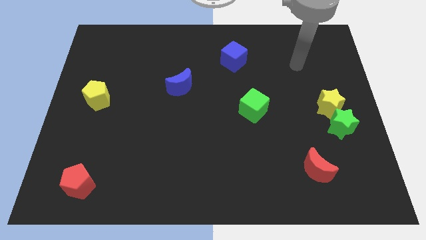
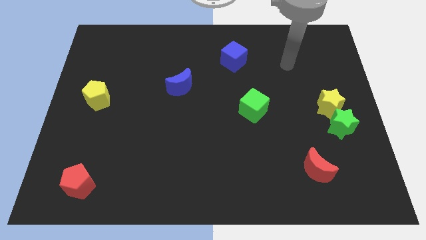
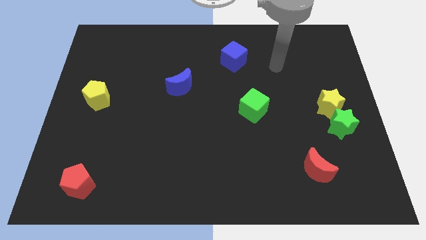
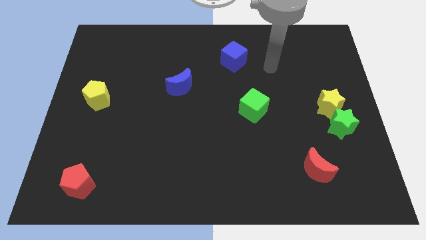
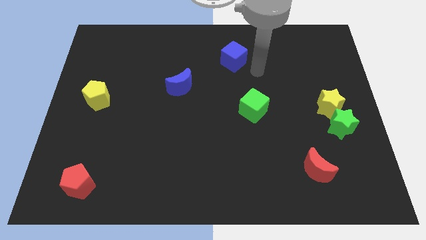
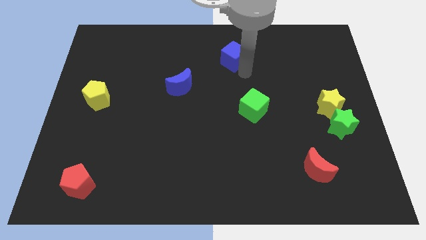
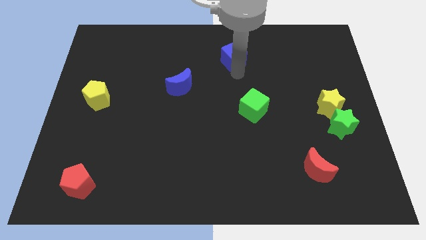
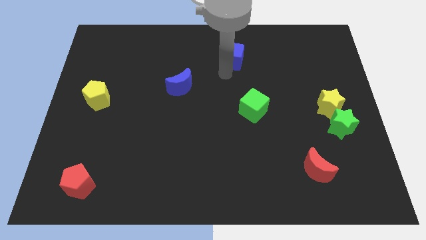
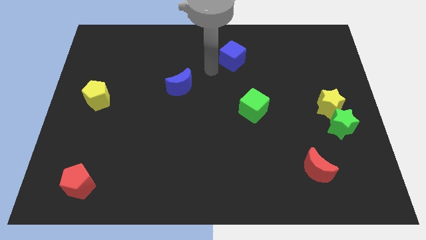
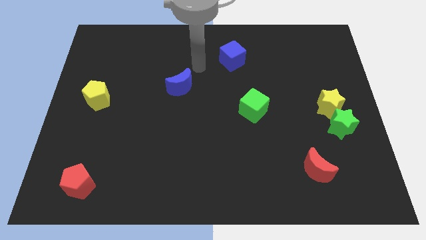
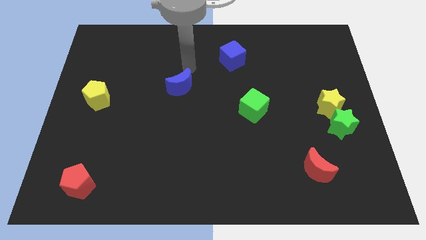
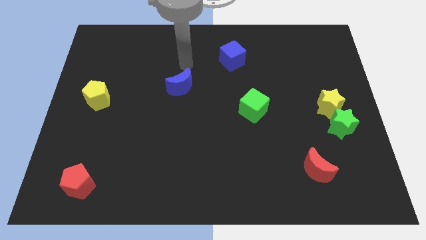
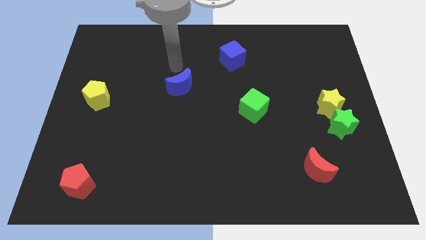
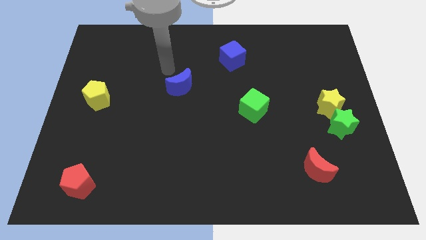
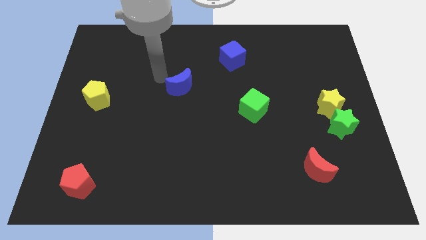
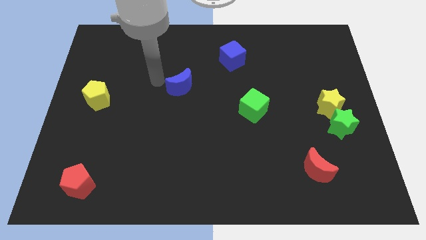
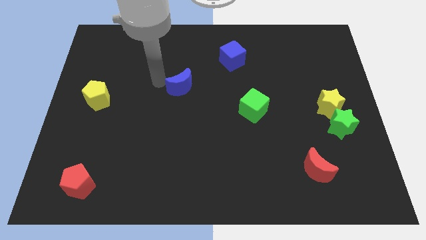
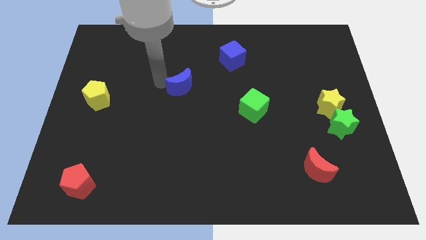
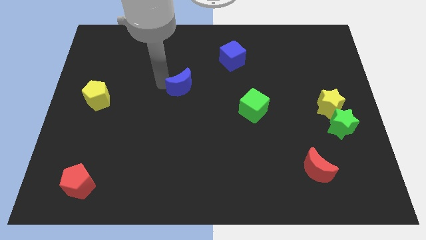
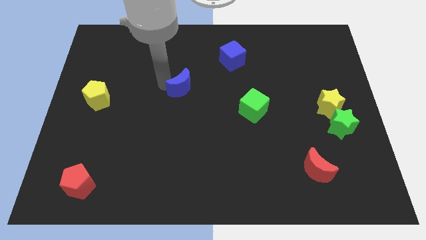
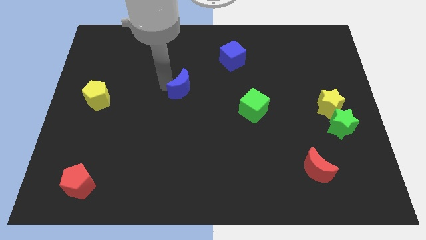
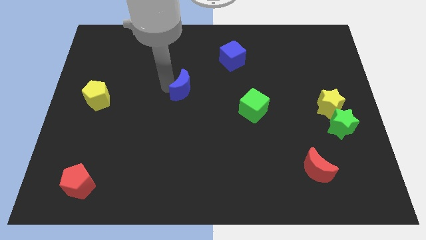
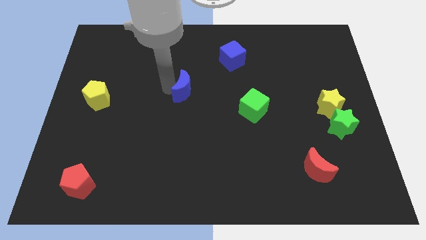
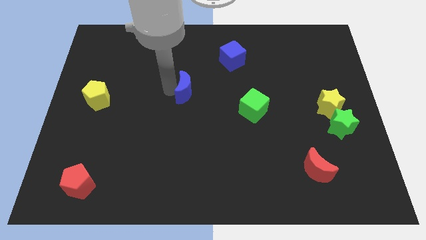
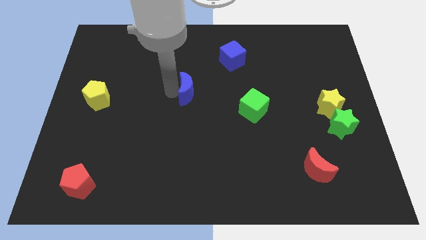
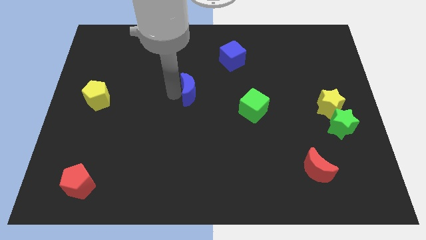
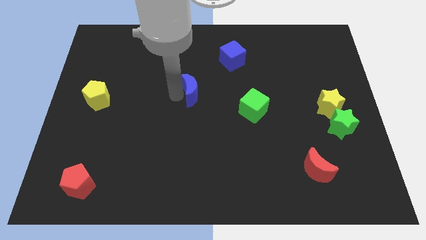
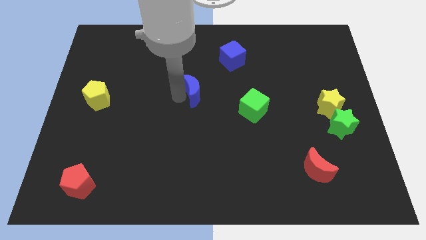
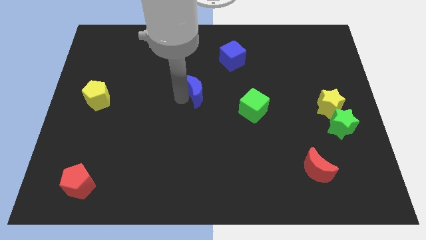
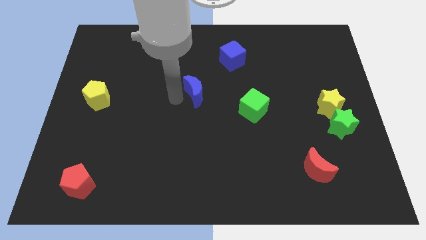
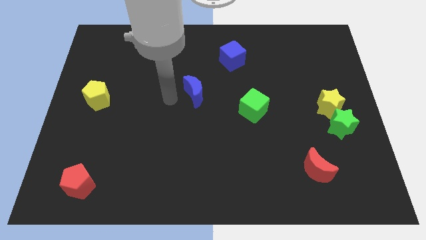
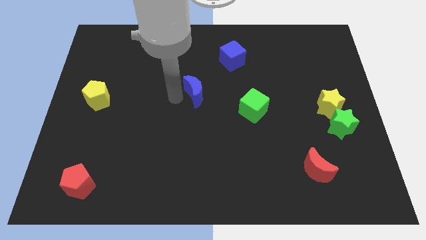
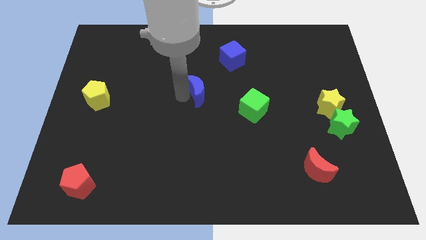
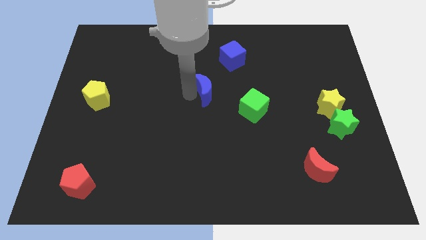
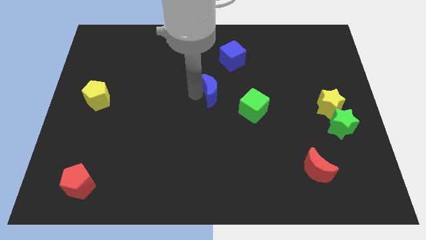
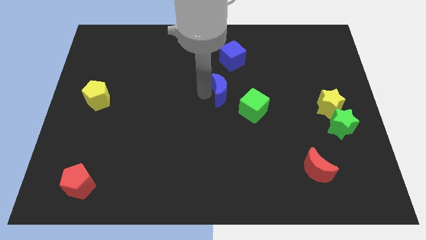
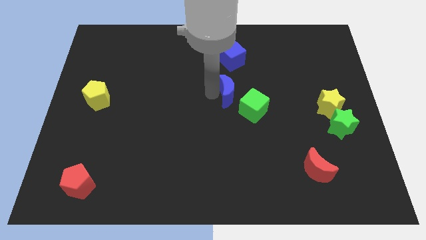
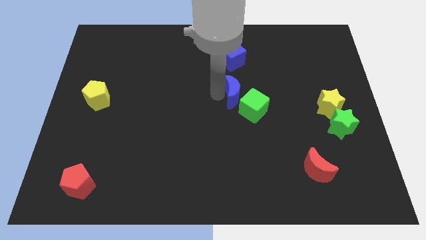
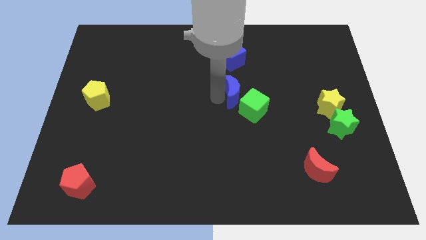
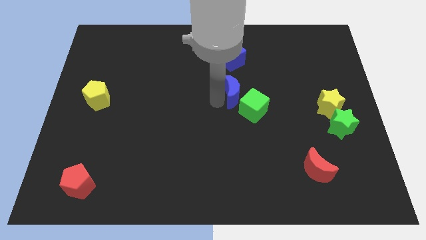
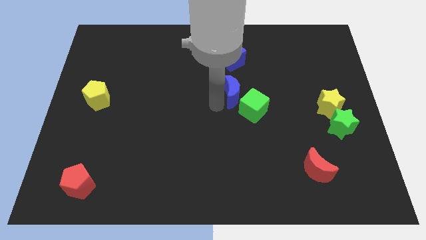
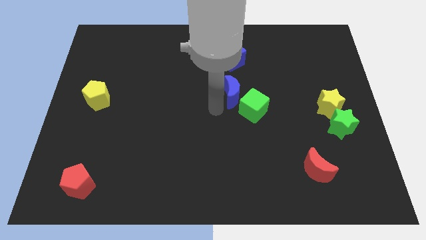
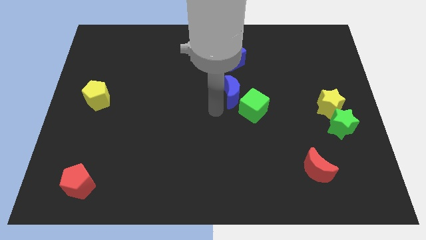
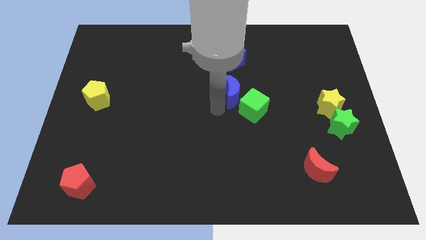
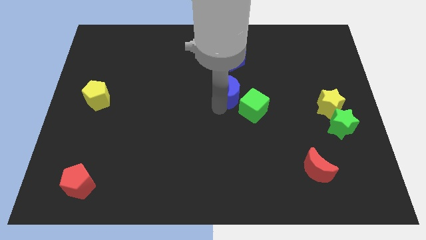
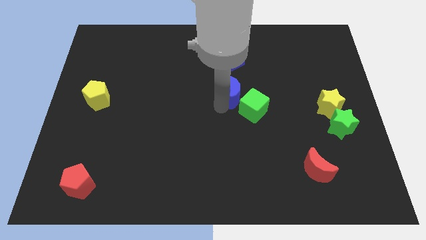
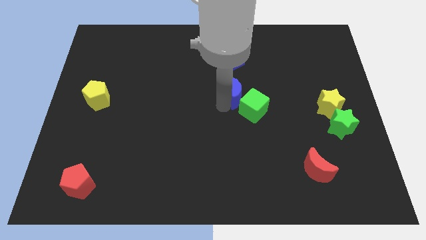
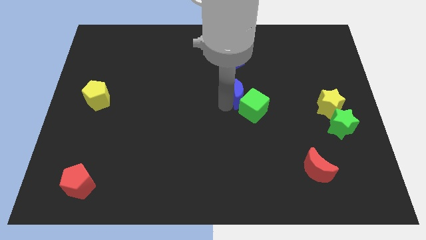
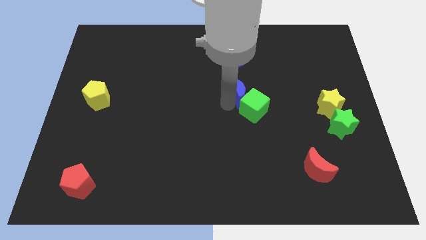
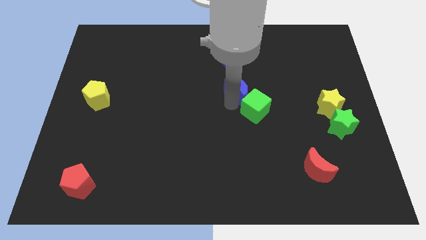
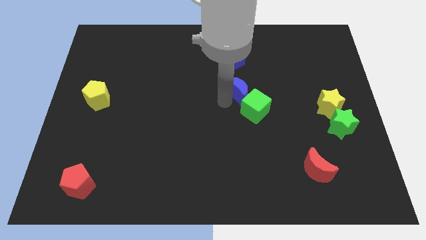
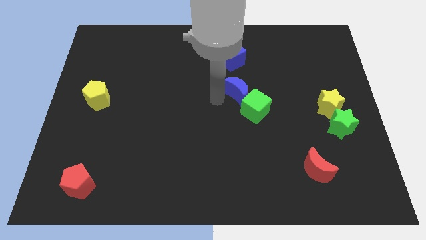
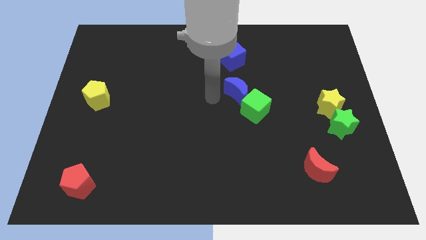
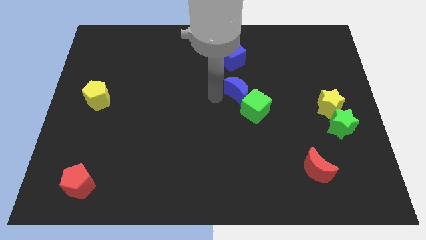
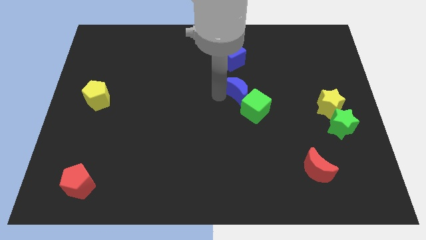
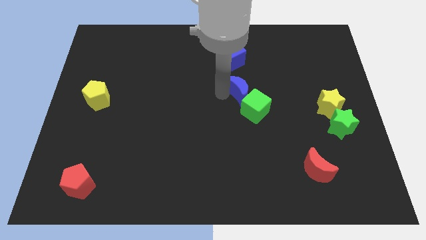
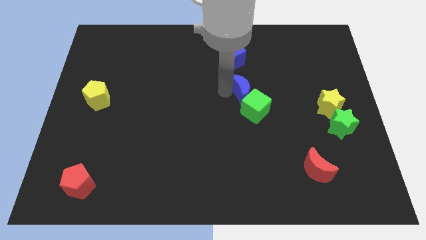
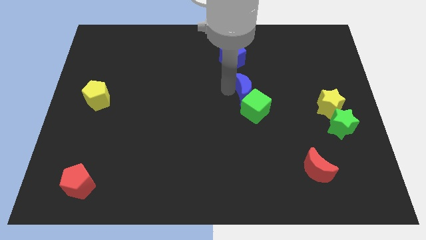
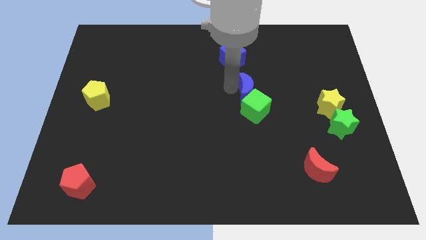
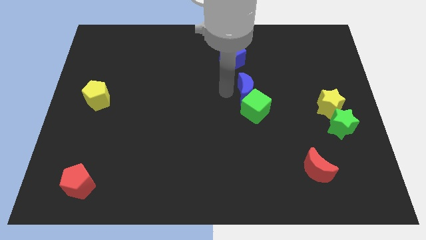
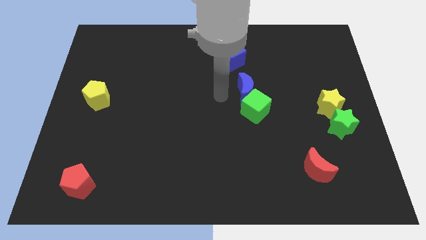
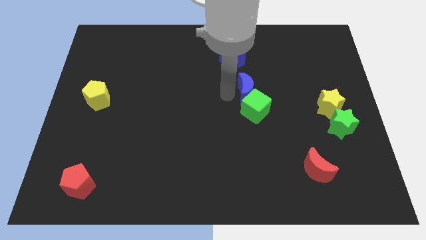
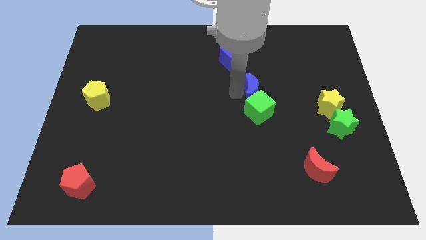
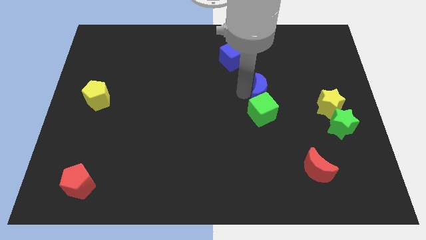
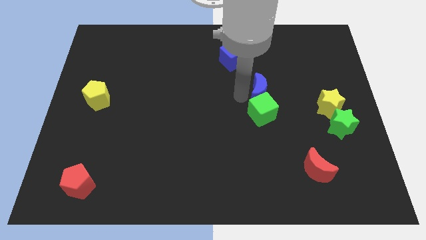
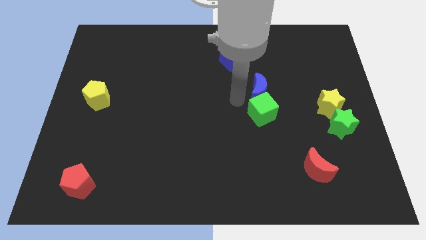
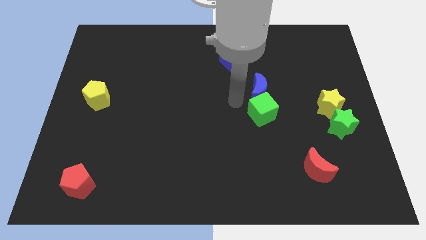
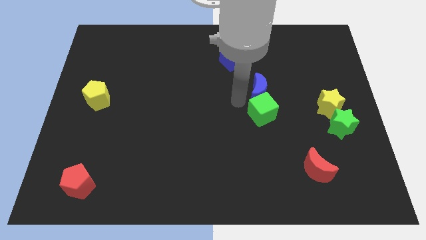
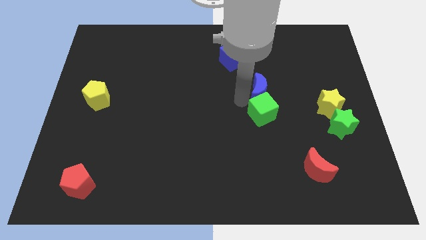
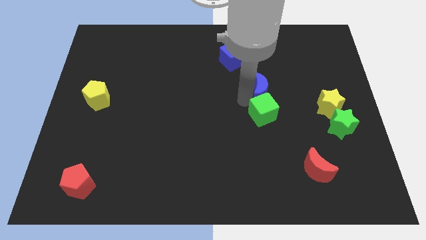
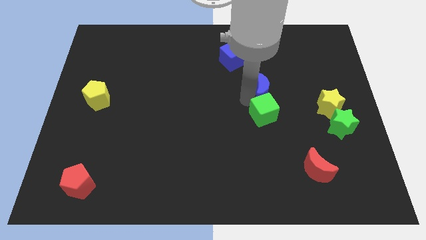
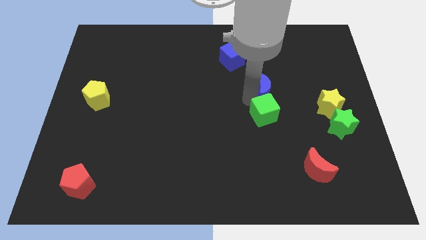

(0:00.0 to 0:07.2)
slide the blue moon right

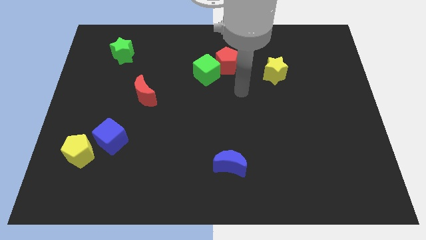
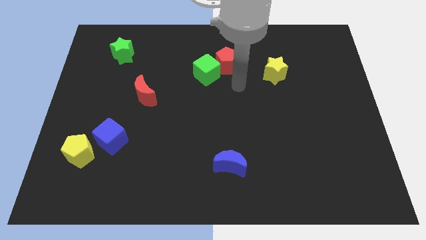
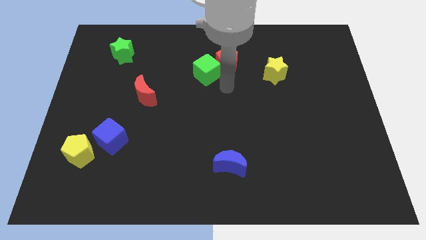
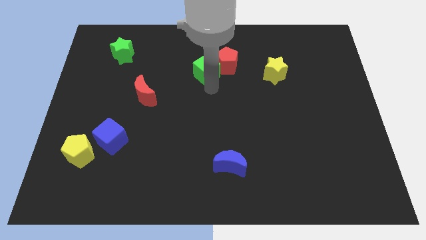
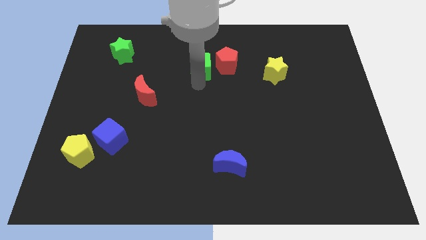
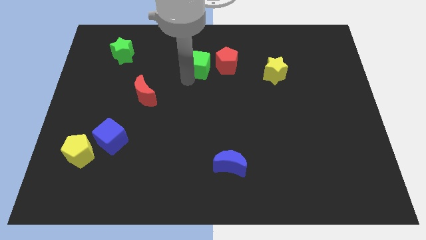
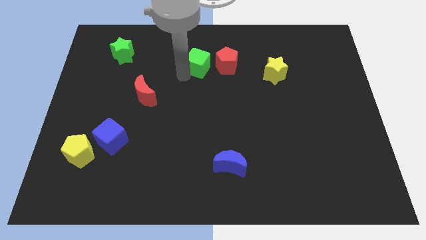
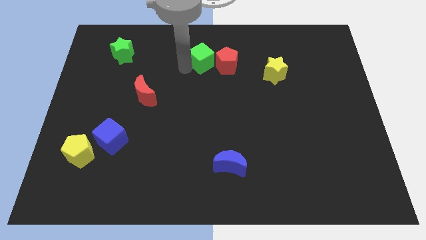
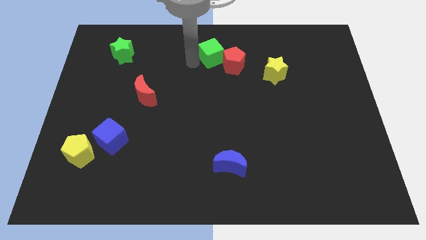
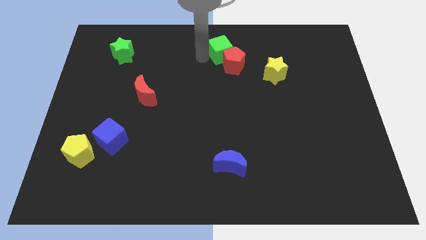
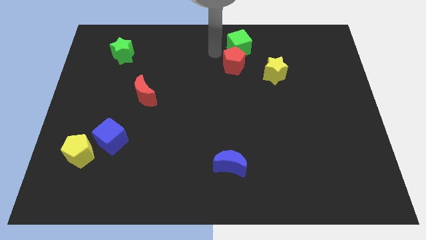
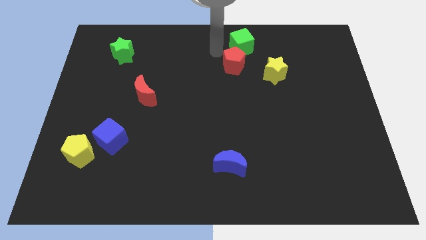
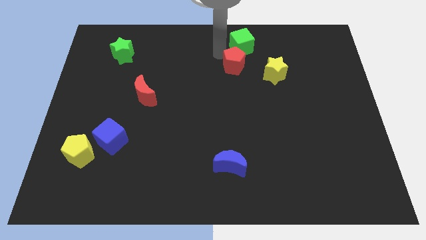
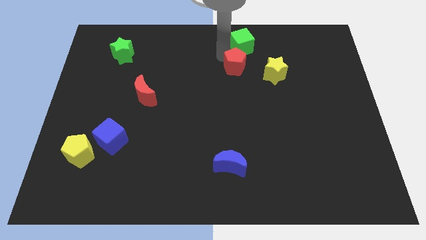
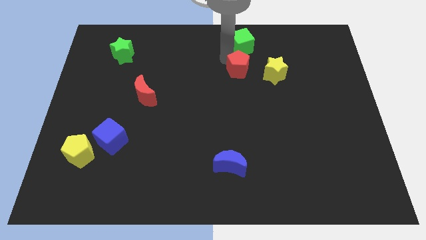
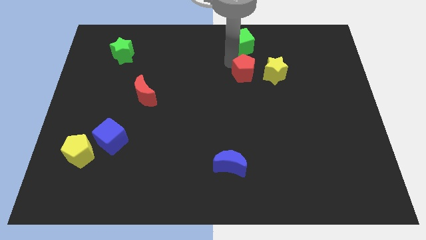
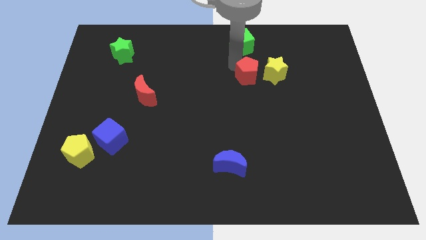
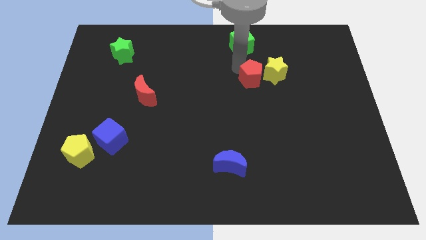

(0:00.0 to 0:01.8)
slightly slide the red pentagon downwards and to the right diagonally
